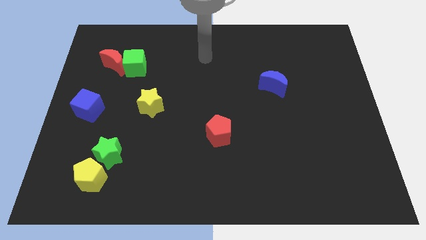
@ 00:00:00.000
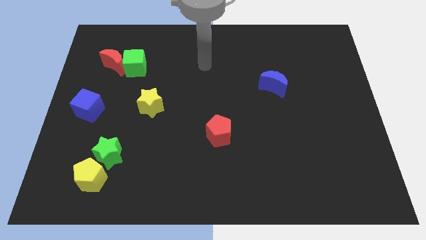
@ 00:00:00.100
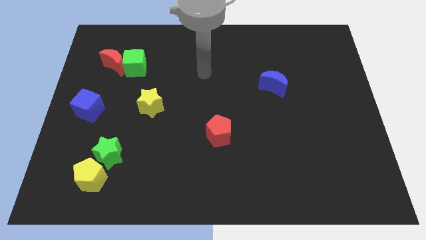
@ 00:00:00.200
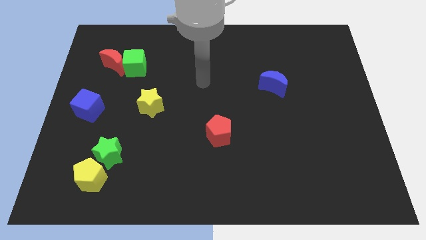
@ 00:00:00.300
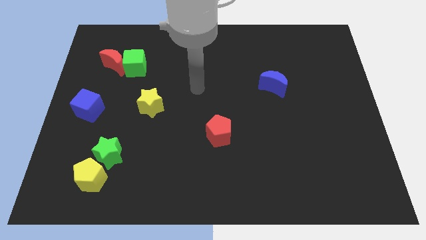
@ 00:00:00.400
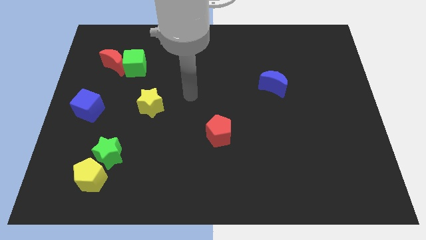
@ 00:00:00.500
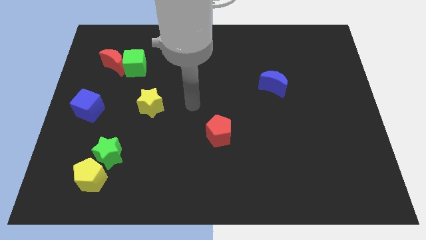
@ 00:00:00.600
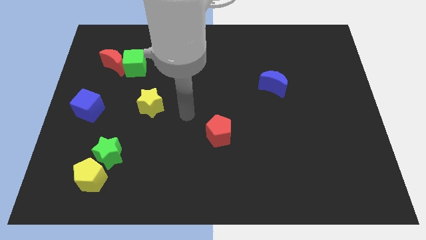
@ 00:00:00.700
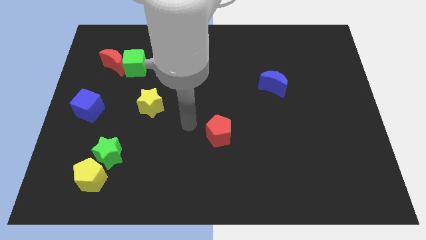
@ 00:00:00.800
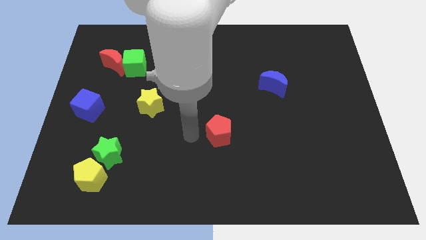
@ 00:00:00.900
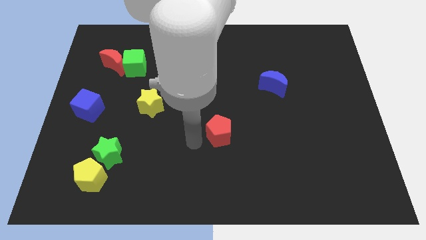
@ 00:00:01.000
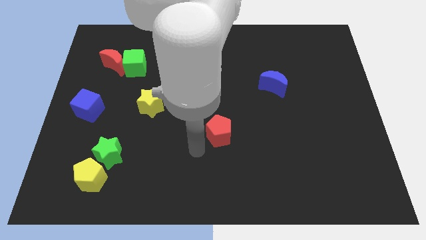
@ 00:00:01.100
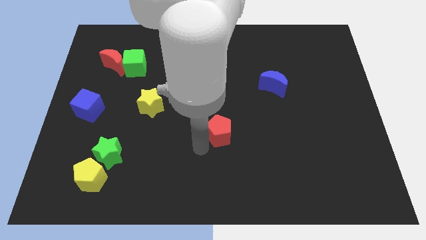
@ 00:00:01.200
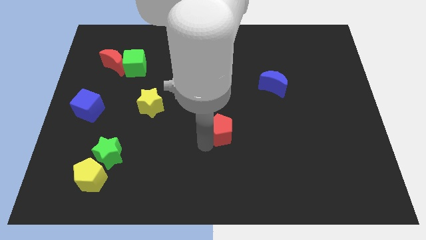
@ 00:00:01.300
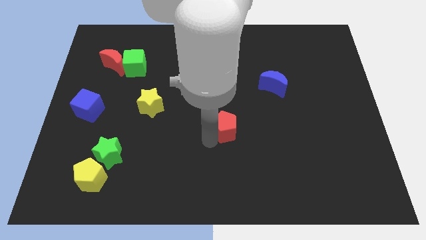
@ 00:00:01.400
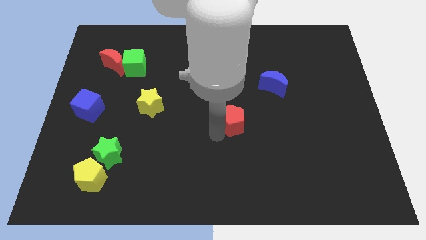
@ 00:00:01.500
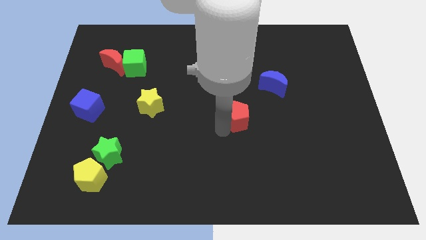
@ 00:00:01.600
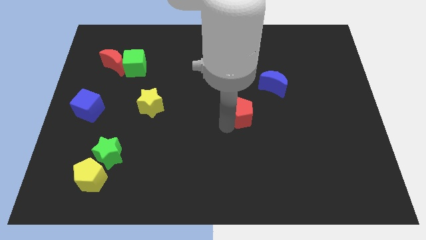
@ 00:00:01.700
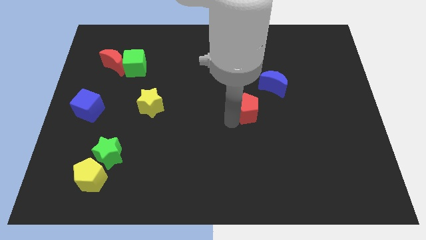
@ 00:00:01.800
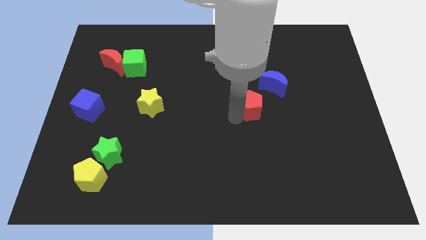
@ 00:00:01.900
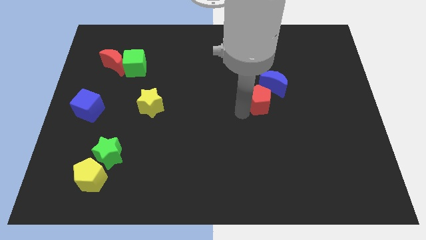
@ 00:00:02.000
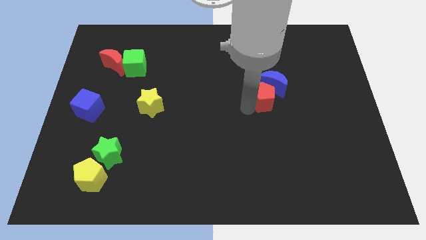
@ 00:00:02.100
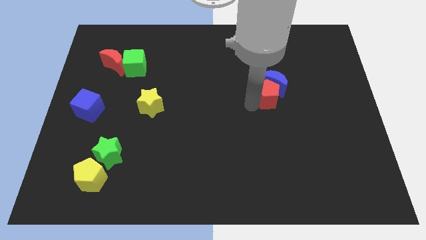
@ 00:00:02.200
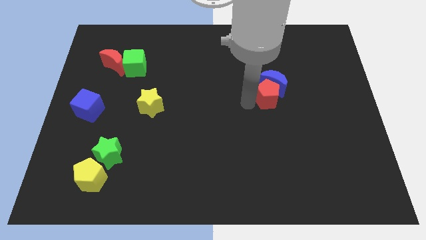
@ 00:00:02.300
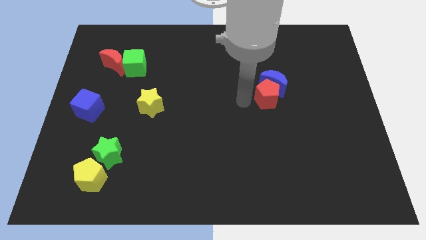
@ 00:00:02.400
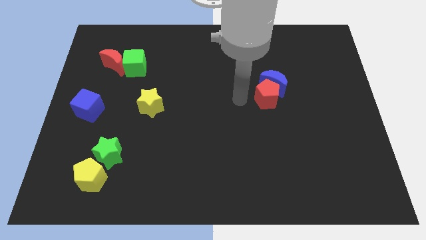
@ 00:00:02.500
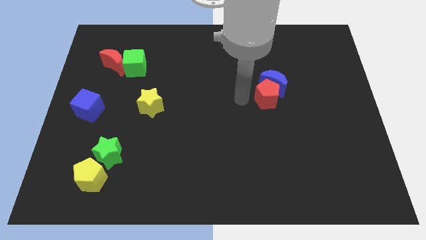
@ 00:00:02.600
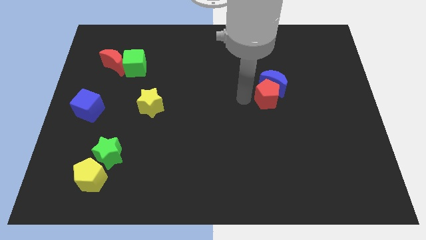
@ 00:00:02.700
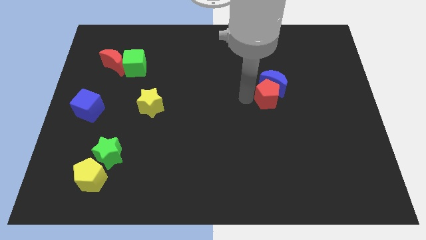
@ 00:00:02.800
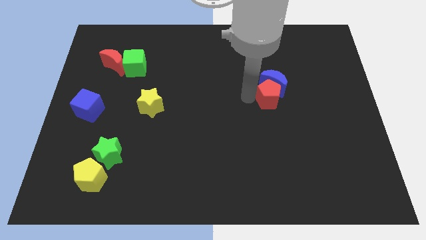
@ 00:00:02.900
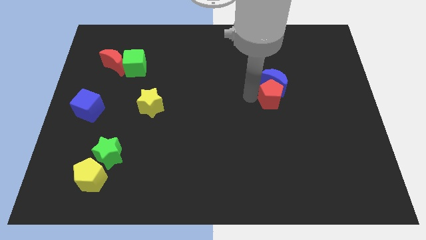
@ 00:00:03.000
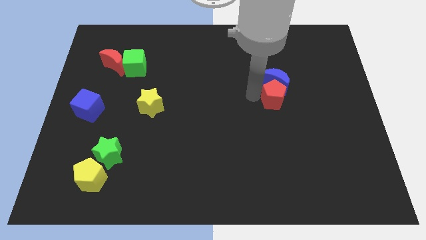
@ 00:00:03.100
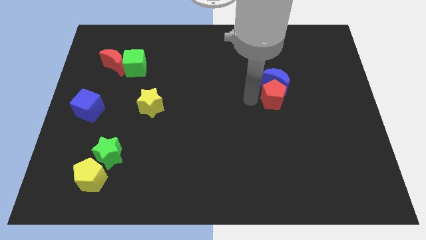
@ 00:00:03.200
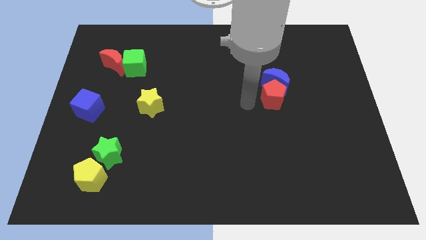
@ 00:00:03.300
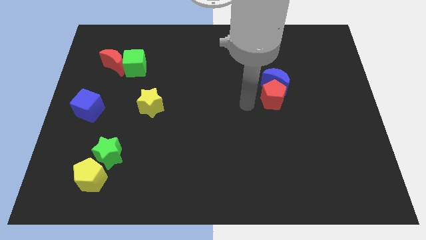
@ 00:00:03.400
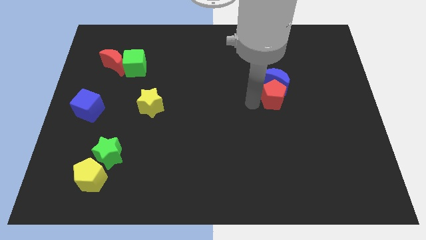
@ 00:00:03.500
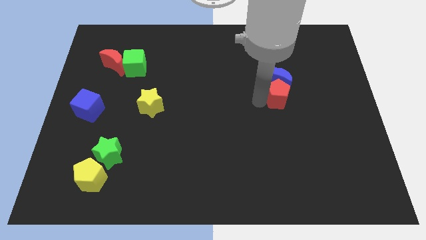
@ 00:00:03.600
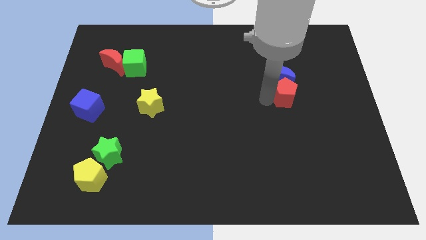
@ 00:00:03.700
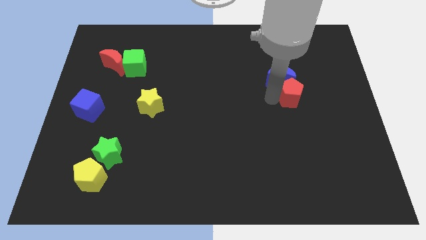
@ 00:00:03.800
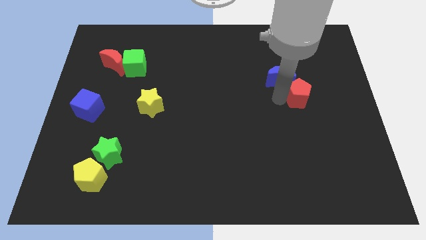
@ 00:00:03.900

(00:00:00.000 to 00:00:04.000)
slide the red pentagon up and to the right diagonally

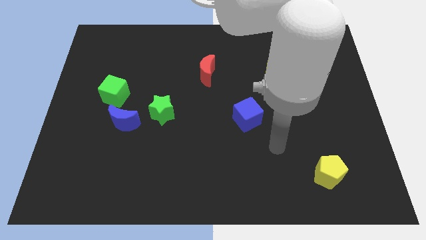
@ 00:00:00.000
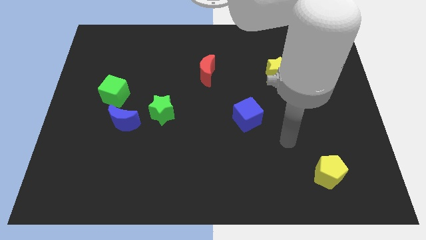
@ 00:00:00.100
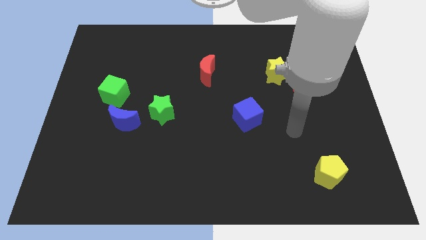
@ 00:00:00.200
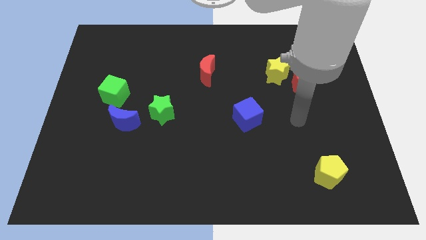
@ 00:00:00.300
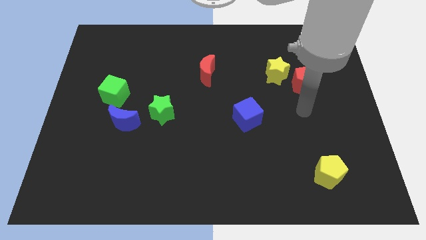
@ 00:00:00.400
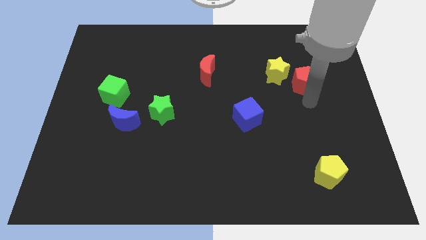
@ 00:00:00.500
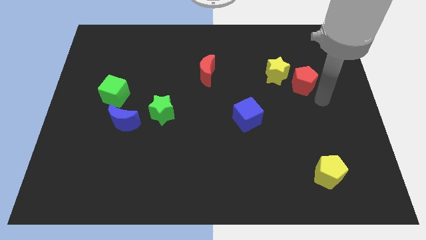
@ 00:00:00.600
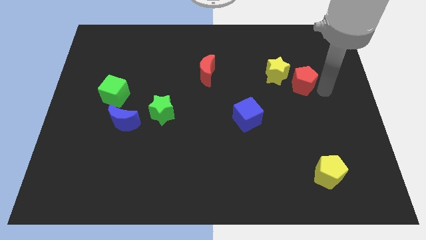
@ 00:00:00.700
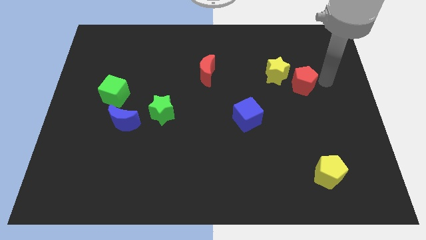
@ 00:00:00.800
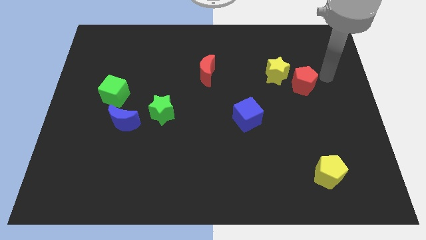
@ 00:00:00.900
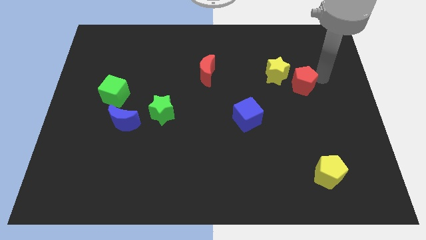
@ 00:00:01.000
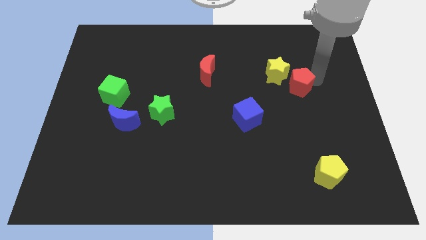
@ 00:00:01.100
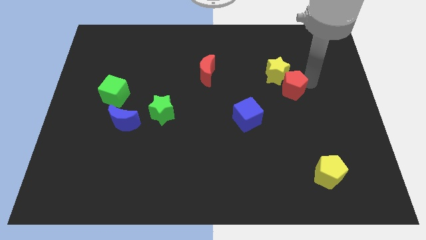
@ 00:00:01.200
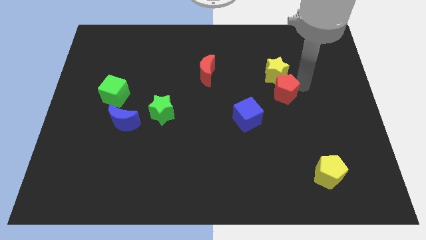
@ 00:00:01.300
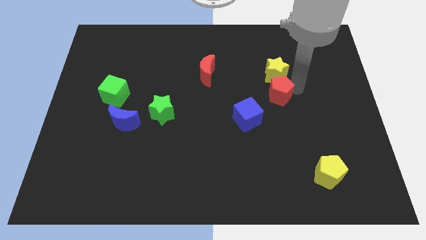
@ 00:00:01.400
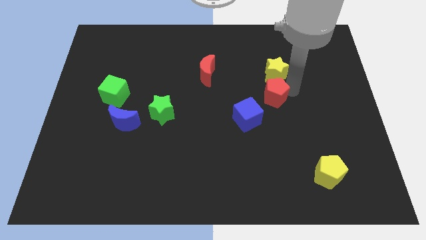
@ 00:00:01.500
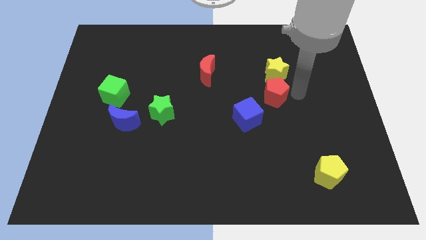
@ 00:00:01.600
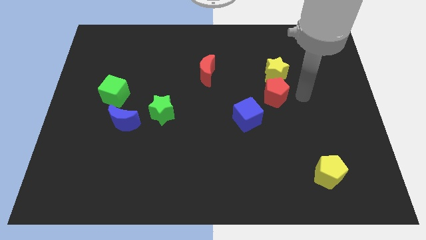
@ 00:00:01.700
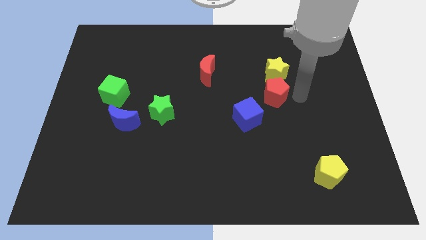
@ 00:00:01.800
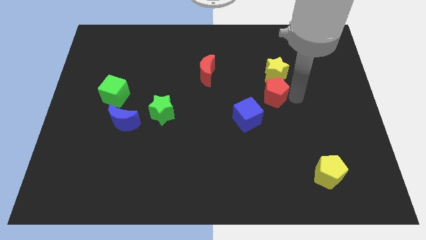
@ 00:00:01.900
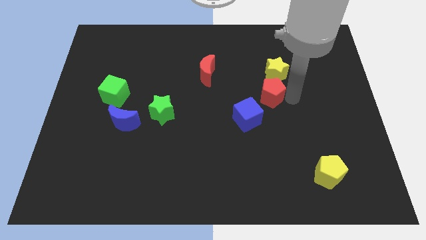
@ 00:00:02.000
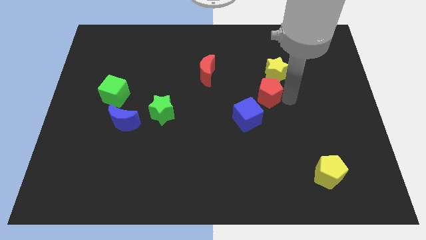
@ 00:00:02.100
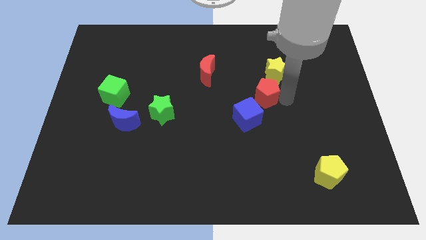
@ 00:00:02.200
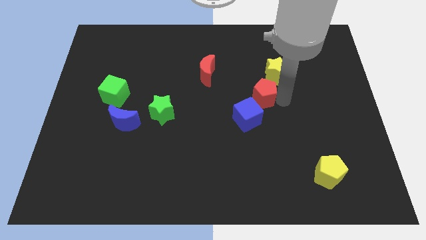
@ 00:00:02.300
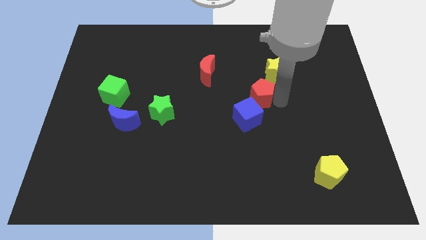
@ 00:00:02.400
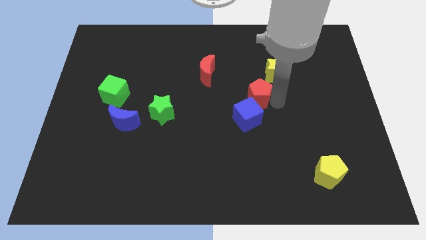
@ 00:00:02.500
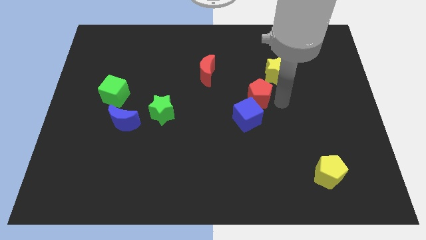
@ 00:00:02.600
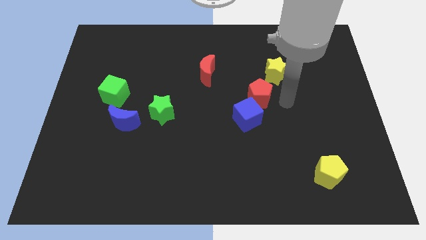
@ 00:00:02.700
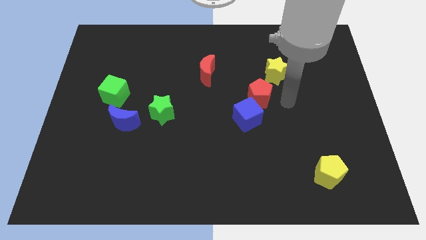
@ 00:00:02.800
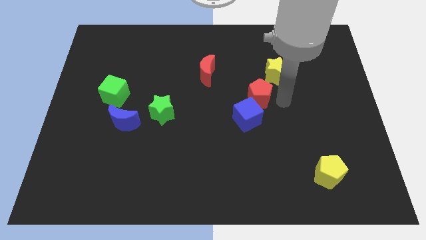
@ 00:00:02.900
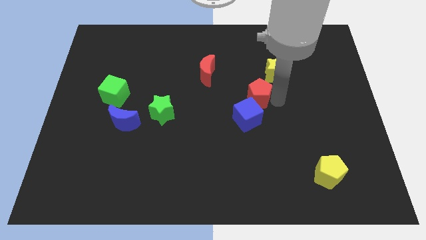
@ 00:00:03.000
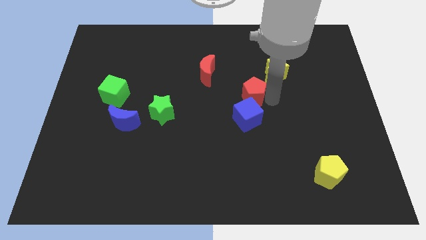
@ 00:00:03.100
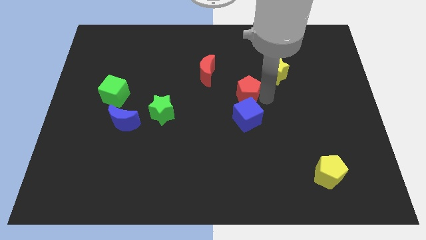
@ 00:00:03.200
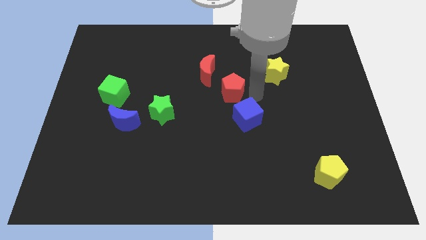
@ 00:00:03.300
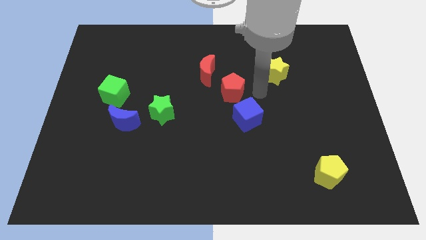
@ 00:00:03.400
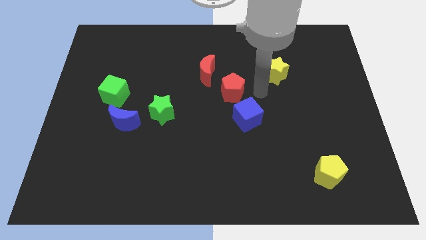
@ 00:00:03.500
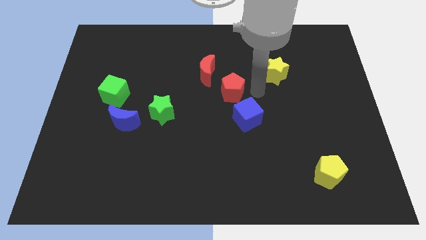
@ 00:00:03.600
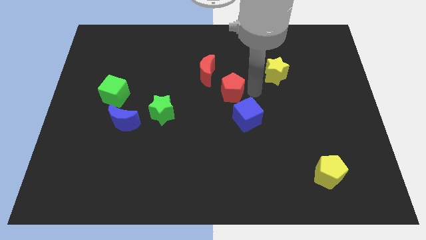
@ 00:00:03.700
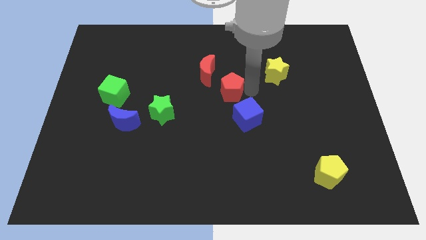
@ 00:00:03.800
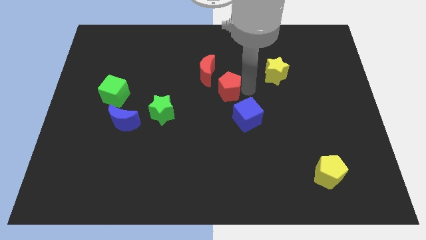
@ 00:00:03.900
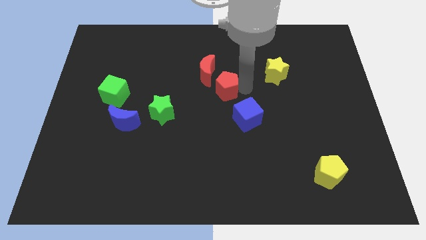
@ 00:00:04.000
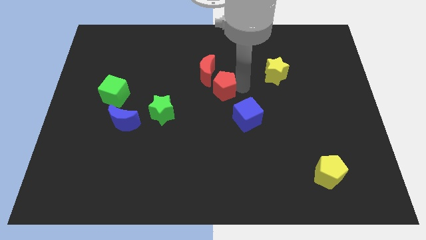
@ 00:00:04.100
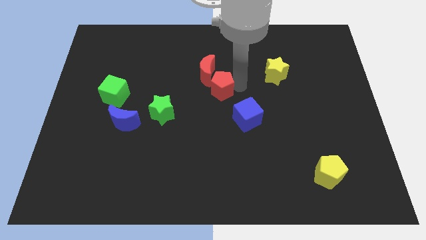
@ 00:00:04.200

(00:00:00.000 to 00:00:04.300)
slide the red pentagon to the left
